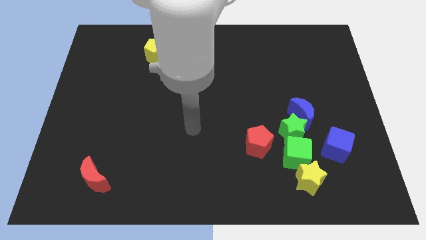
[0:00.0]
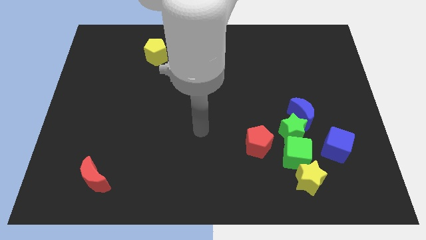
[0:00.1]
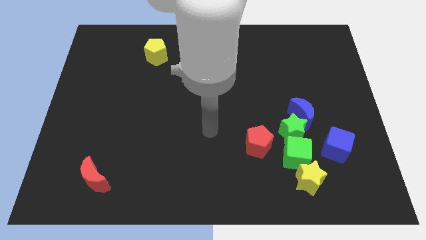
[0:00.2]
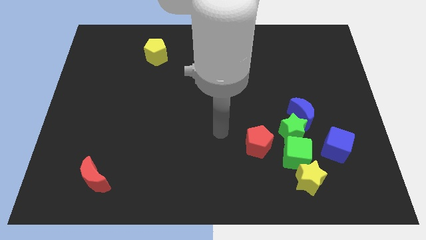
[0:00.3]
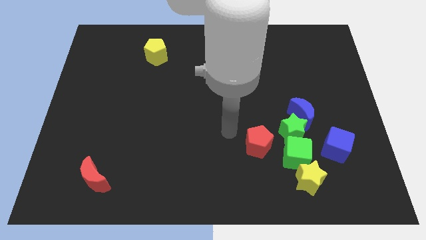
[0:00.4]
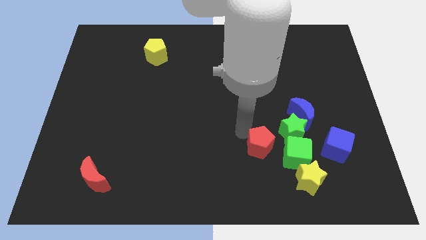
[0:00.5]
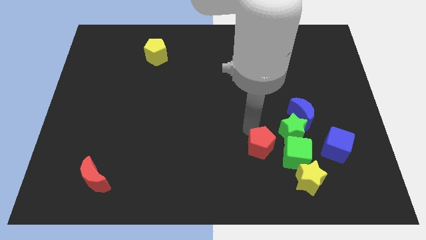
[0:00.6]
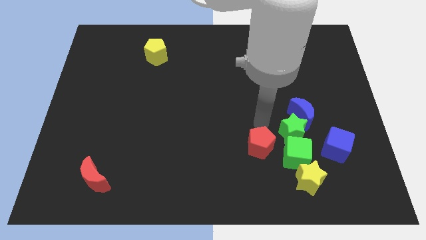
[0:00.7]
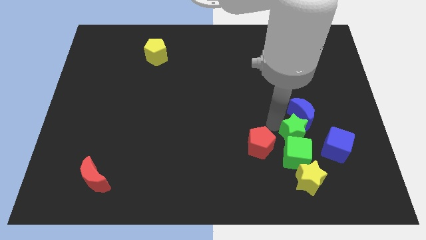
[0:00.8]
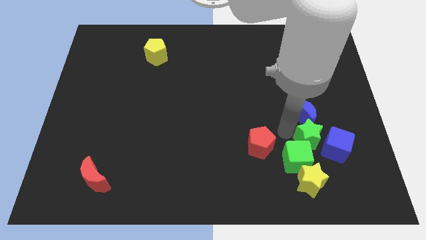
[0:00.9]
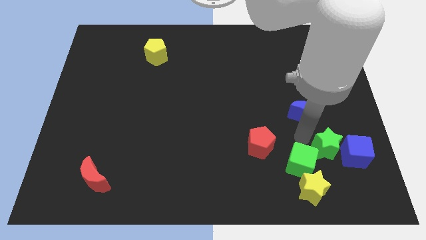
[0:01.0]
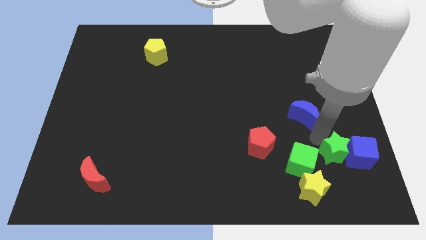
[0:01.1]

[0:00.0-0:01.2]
separate the blue moon from the green star

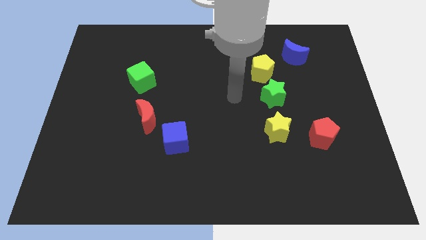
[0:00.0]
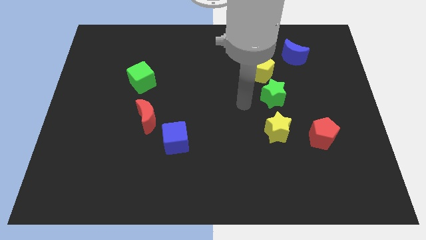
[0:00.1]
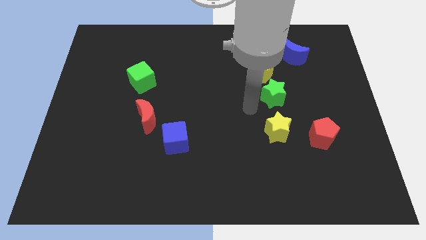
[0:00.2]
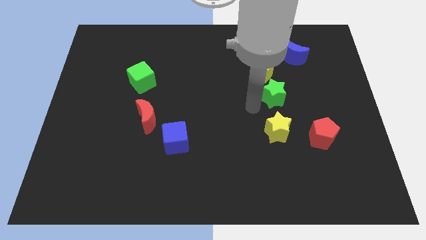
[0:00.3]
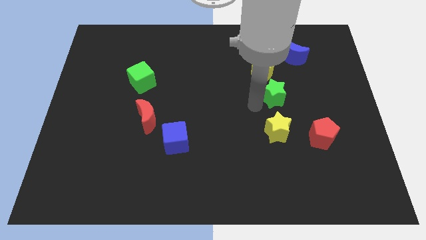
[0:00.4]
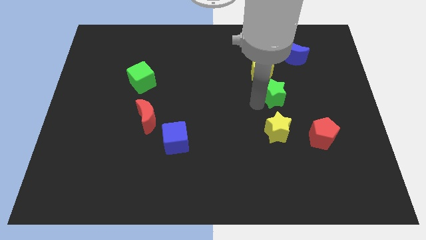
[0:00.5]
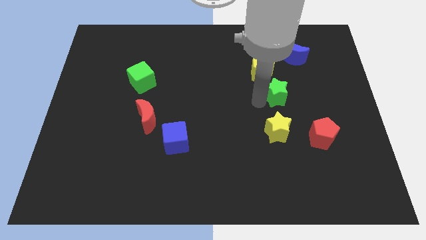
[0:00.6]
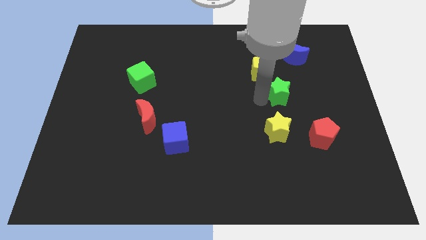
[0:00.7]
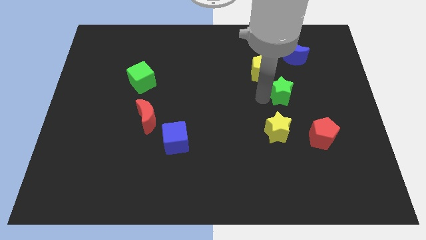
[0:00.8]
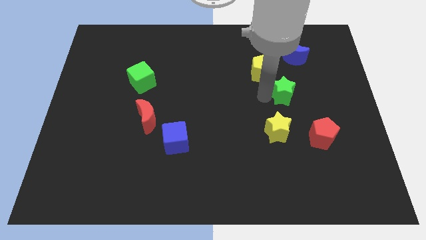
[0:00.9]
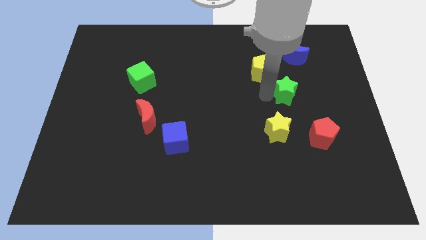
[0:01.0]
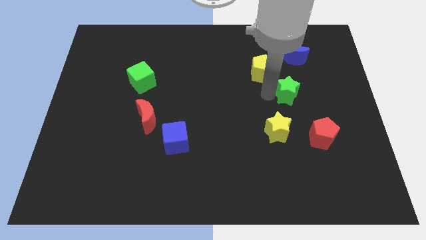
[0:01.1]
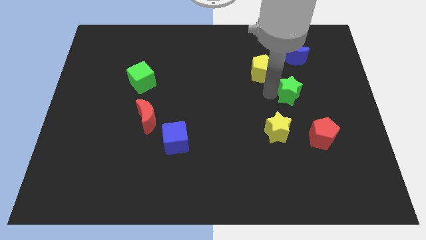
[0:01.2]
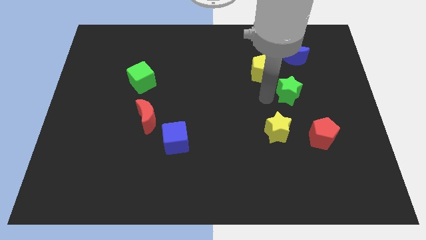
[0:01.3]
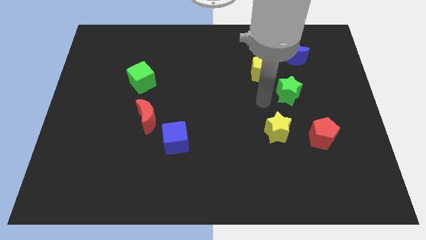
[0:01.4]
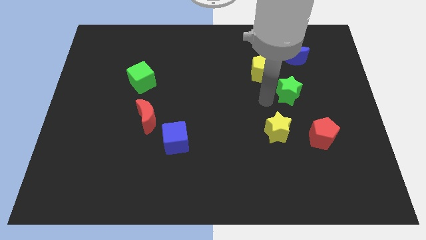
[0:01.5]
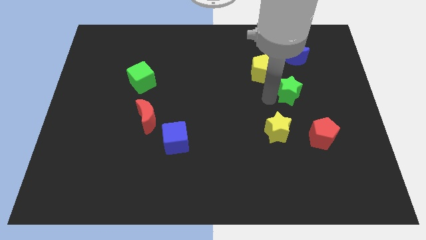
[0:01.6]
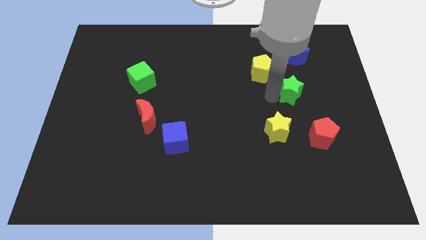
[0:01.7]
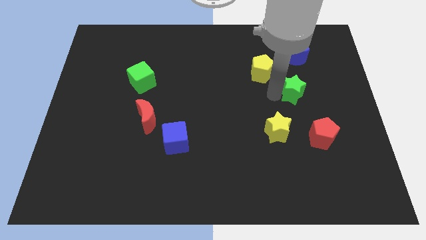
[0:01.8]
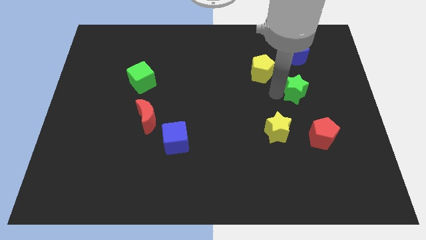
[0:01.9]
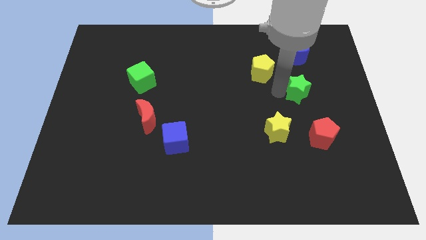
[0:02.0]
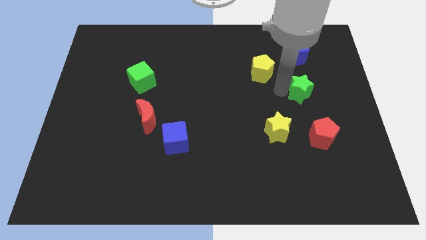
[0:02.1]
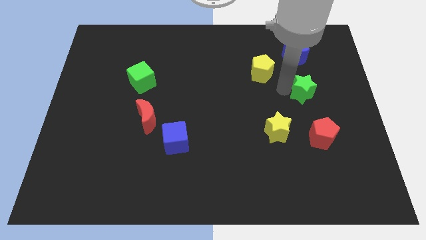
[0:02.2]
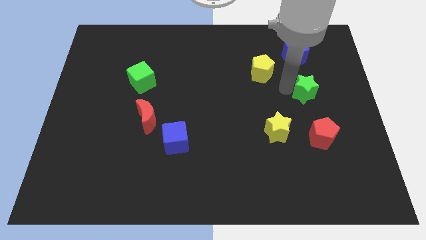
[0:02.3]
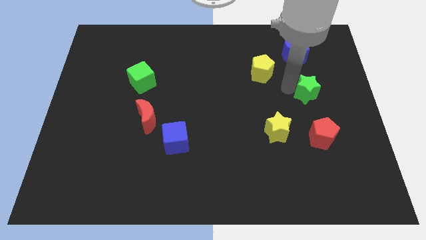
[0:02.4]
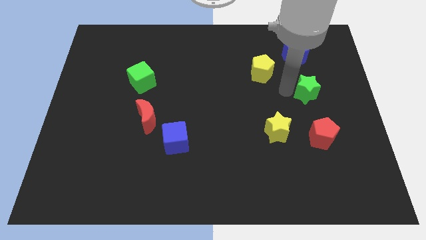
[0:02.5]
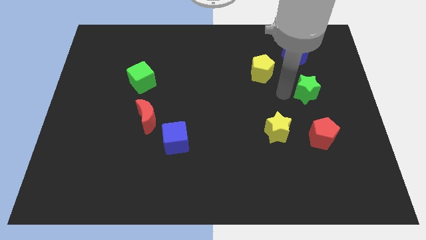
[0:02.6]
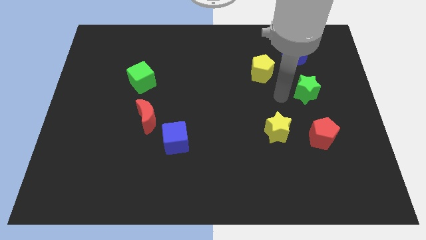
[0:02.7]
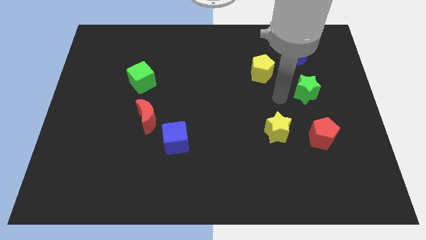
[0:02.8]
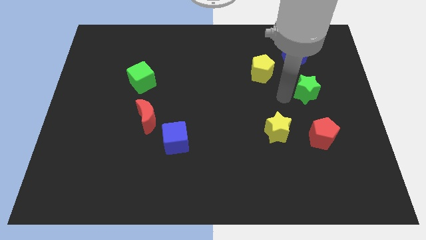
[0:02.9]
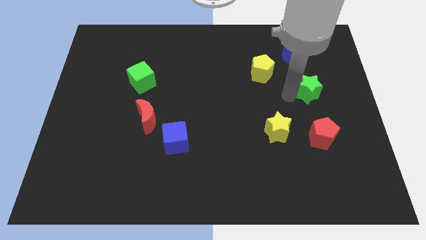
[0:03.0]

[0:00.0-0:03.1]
pull the green star apart from the yellow pentagon and yellow star

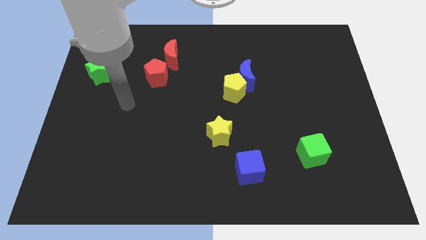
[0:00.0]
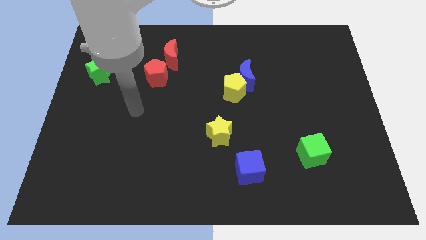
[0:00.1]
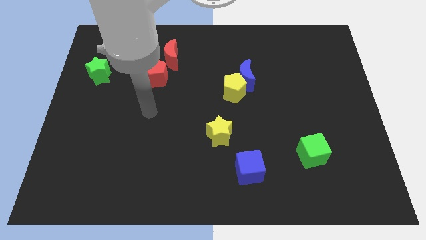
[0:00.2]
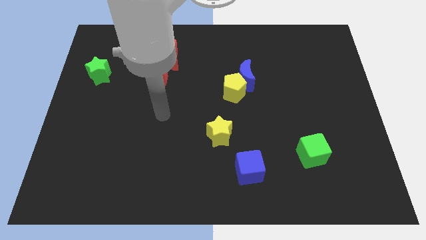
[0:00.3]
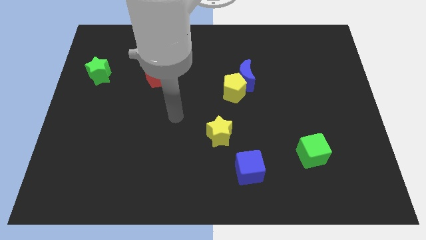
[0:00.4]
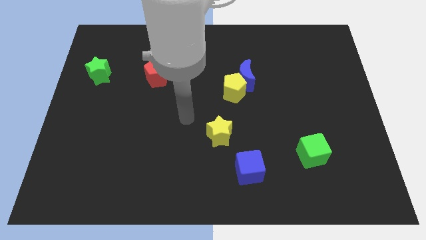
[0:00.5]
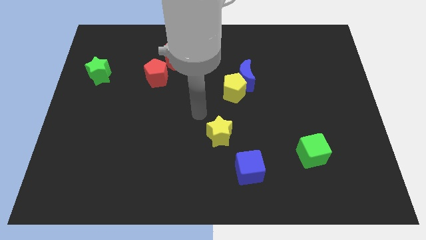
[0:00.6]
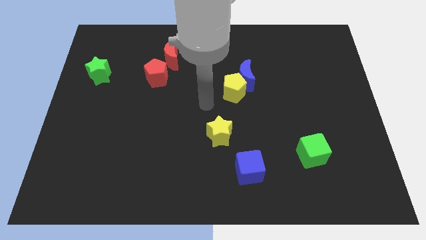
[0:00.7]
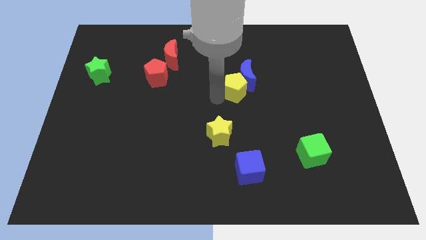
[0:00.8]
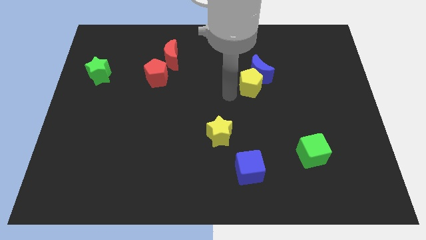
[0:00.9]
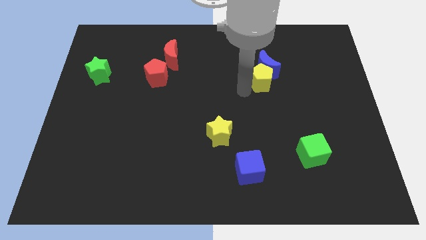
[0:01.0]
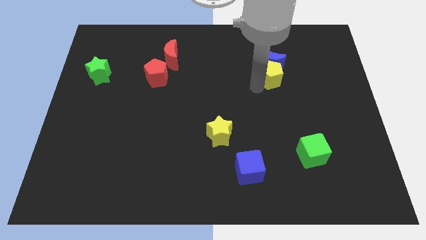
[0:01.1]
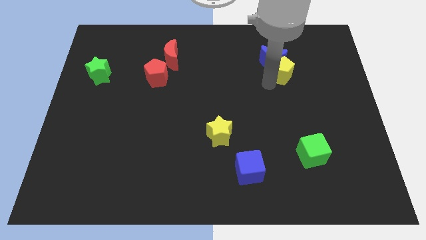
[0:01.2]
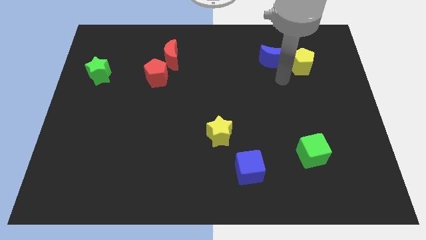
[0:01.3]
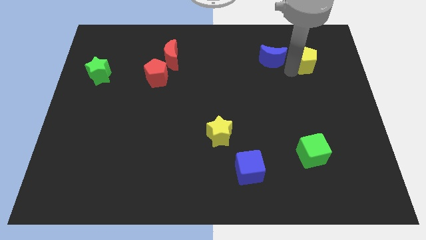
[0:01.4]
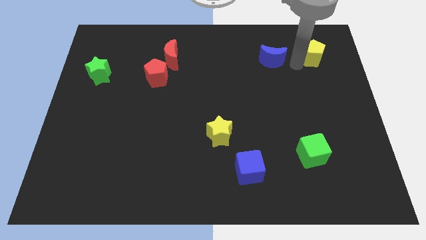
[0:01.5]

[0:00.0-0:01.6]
separate the blue moon from the yellow pentagon

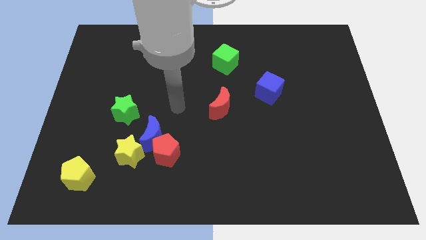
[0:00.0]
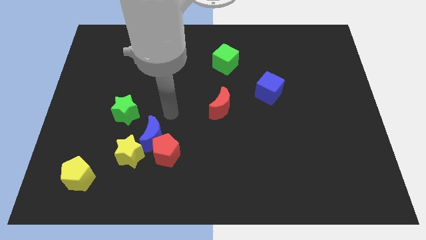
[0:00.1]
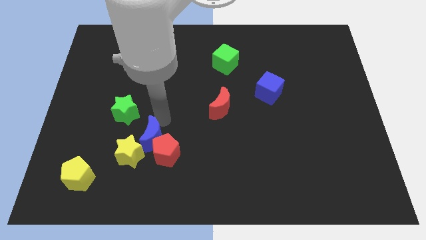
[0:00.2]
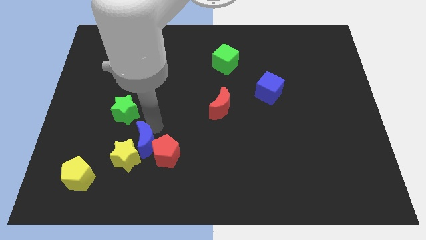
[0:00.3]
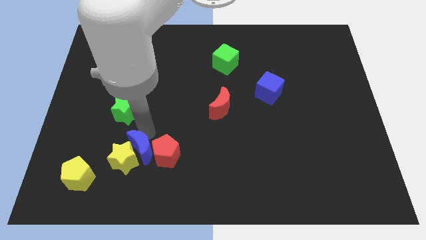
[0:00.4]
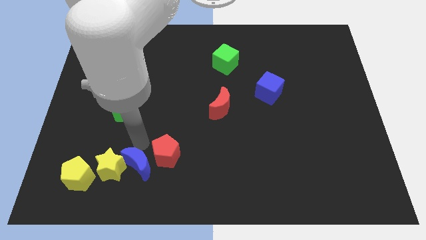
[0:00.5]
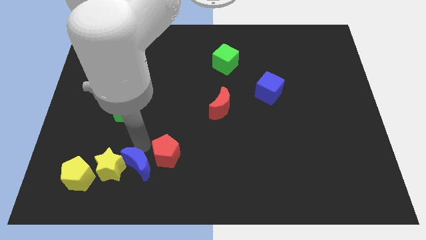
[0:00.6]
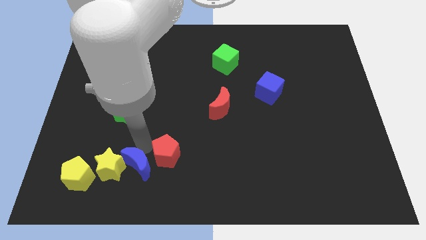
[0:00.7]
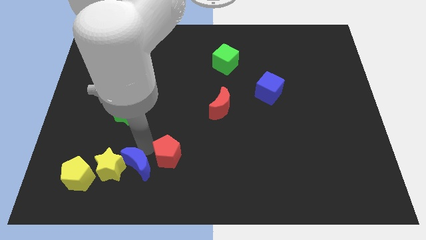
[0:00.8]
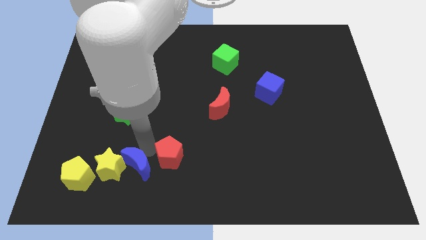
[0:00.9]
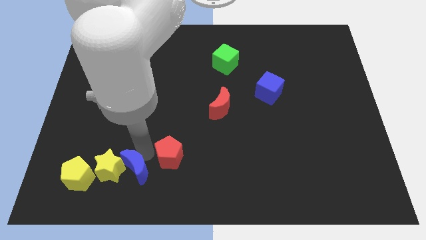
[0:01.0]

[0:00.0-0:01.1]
move the red pentagon away from the blue moon and yellow star

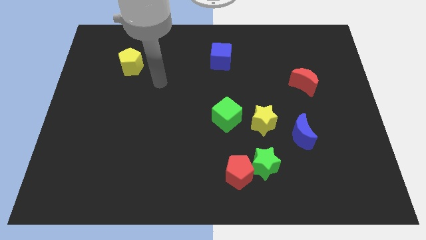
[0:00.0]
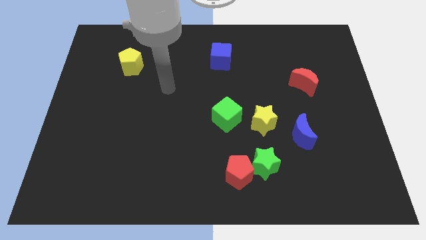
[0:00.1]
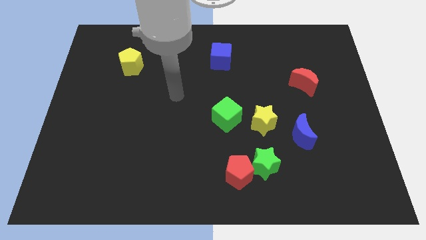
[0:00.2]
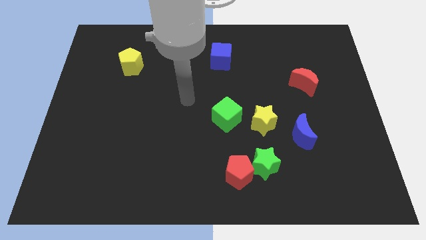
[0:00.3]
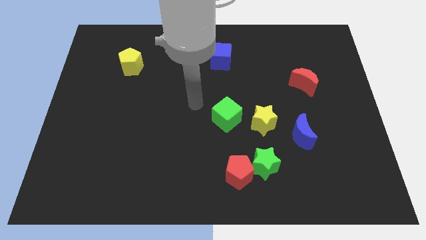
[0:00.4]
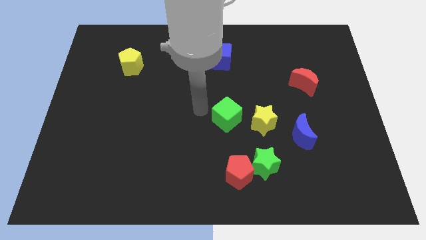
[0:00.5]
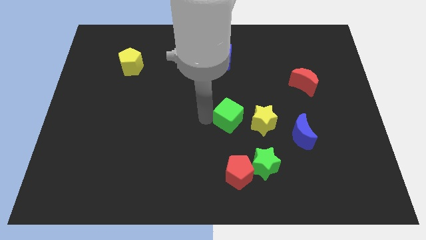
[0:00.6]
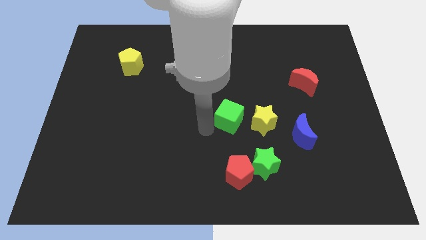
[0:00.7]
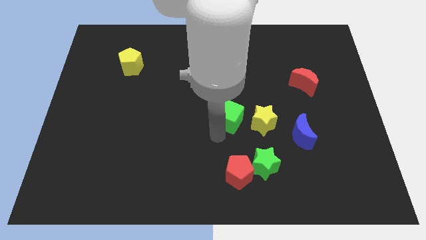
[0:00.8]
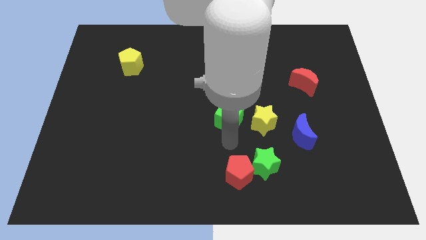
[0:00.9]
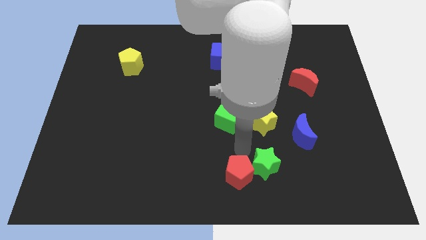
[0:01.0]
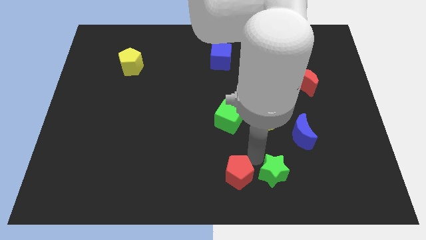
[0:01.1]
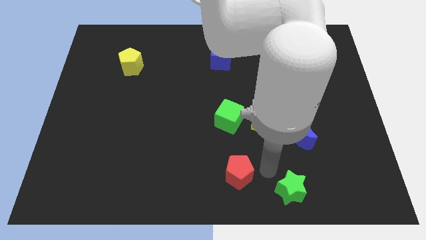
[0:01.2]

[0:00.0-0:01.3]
pull the red pentagon apart from the green star

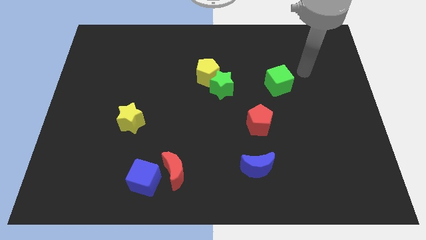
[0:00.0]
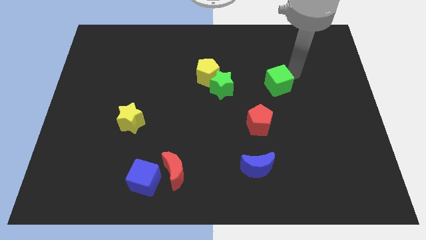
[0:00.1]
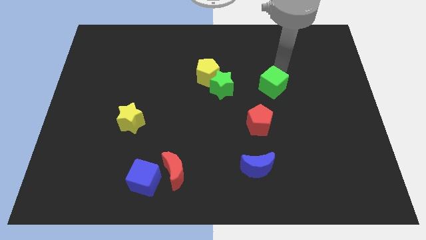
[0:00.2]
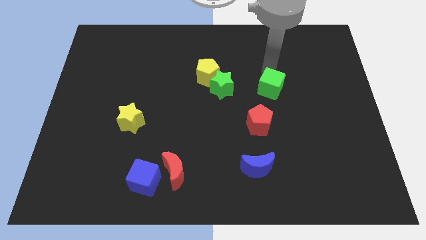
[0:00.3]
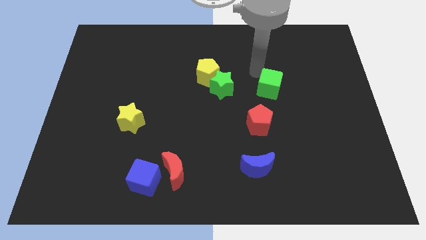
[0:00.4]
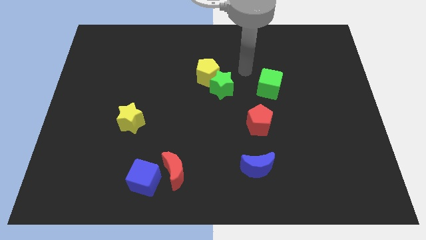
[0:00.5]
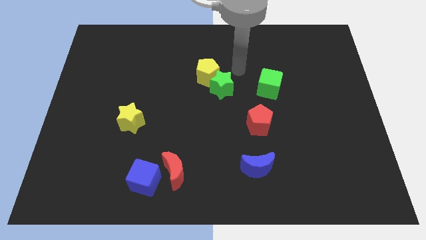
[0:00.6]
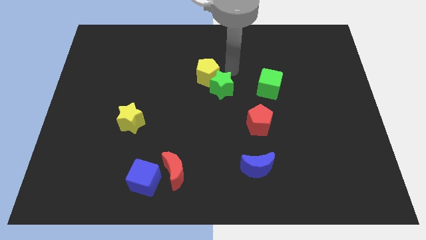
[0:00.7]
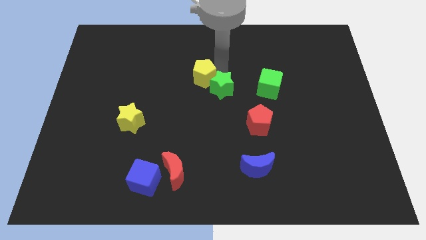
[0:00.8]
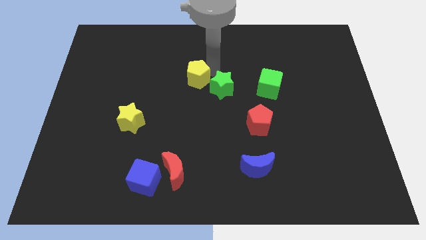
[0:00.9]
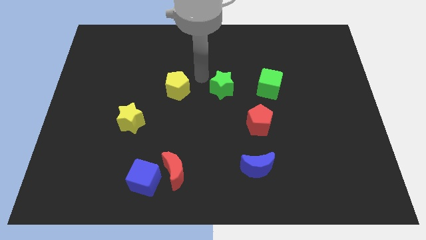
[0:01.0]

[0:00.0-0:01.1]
separate the green star from the yellow pentagon
